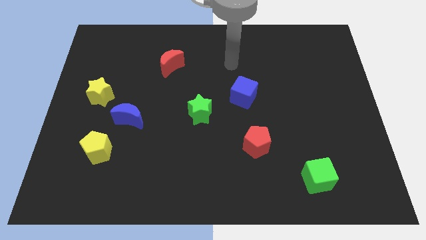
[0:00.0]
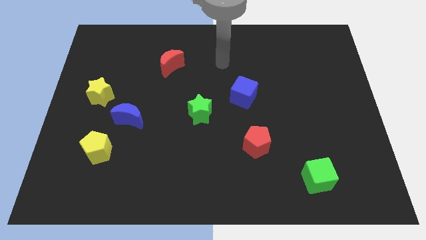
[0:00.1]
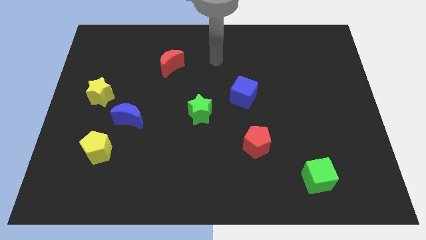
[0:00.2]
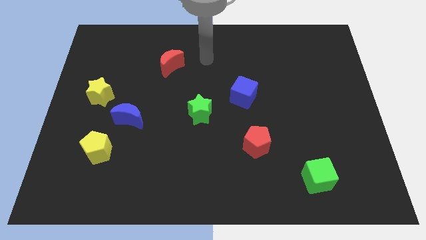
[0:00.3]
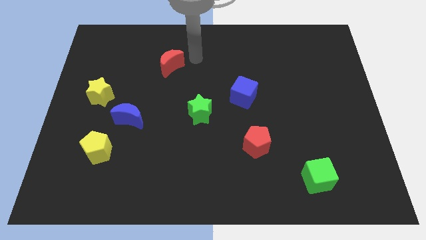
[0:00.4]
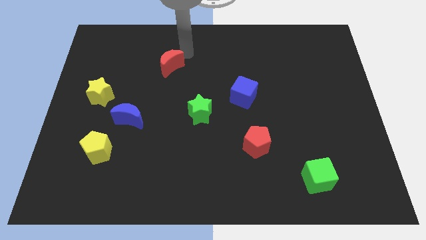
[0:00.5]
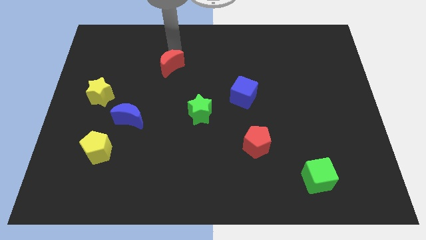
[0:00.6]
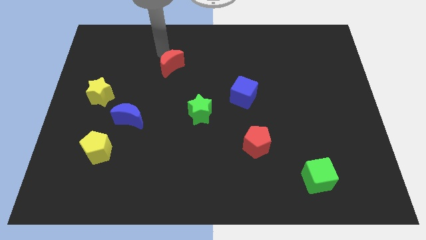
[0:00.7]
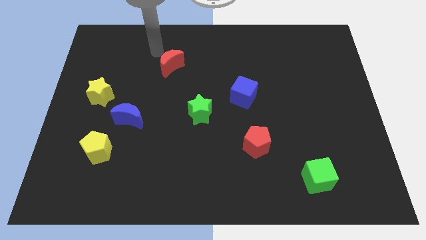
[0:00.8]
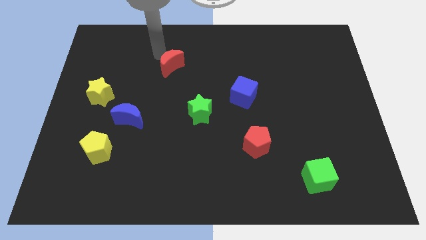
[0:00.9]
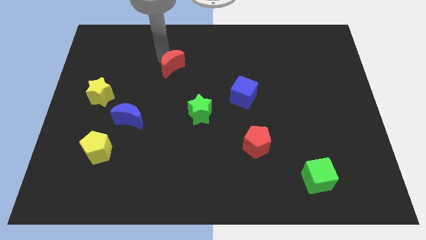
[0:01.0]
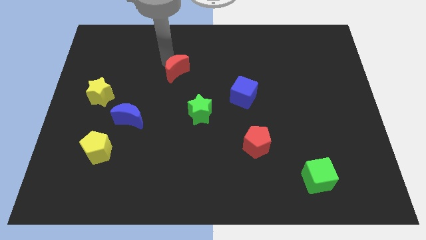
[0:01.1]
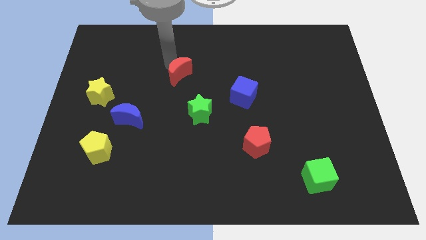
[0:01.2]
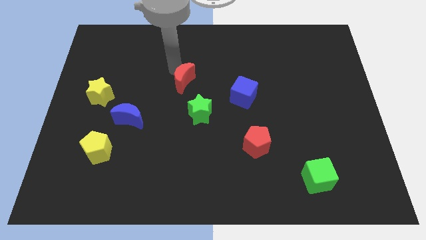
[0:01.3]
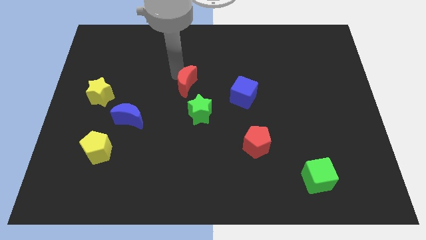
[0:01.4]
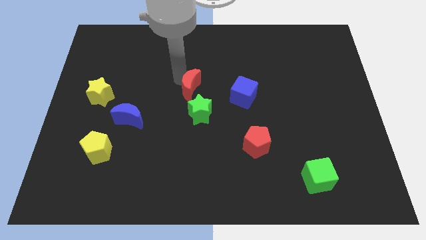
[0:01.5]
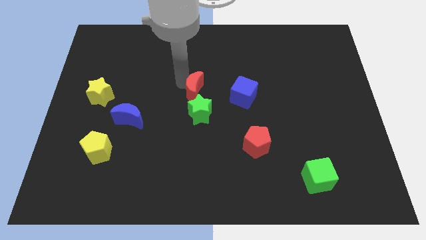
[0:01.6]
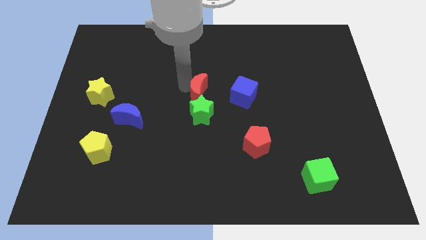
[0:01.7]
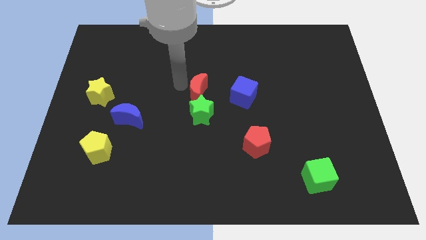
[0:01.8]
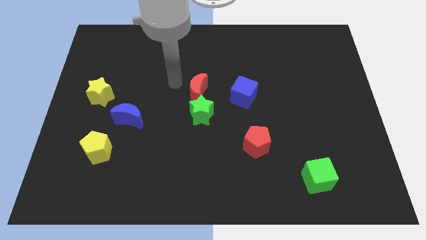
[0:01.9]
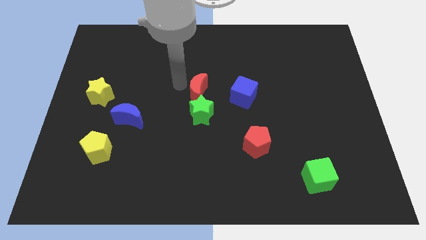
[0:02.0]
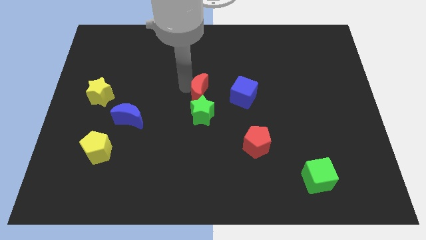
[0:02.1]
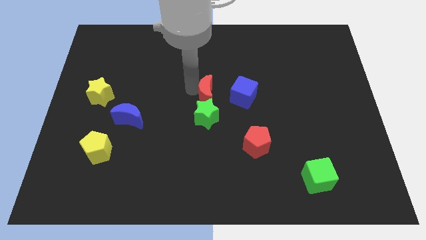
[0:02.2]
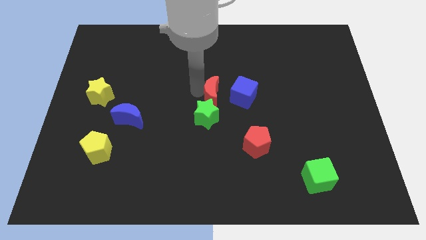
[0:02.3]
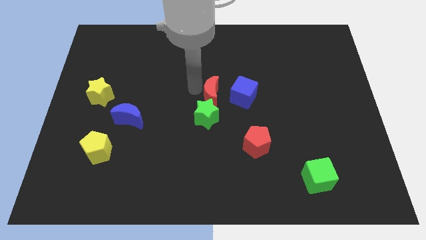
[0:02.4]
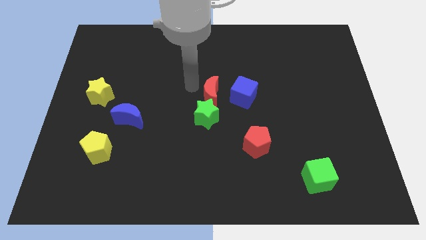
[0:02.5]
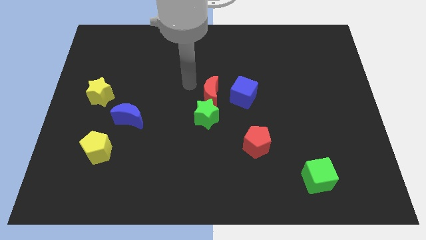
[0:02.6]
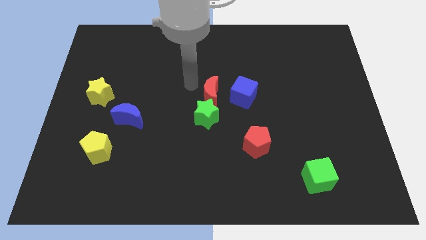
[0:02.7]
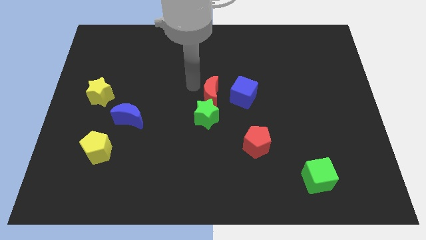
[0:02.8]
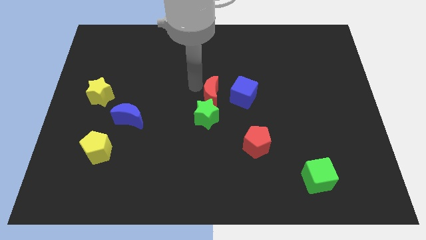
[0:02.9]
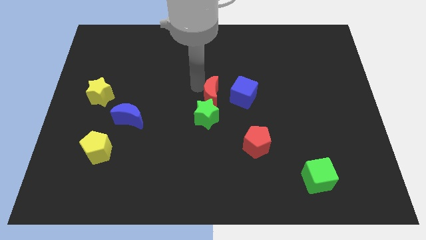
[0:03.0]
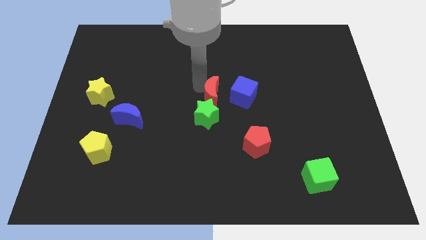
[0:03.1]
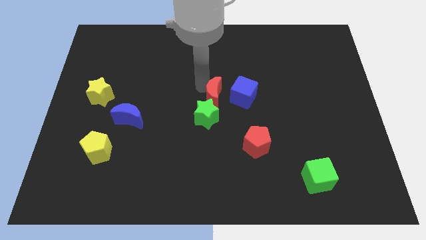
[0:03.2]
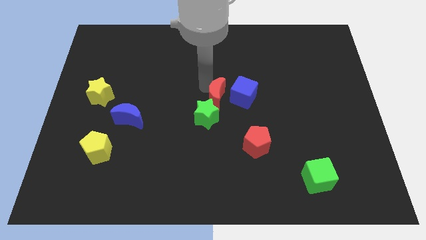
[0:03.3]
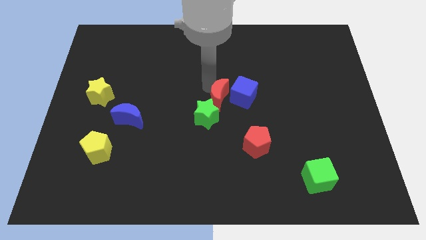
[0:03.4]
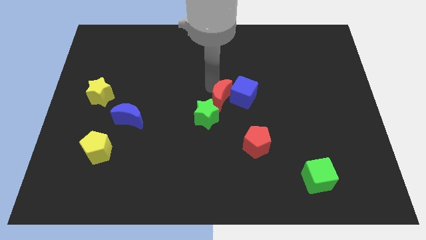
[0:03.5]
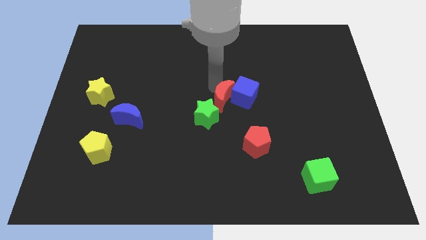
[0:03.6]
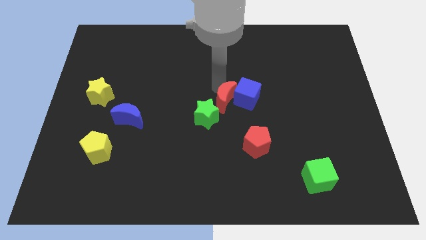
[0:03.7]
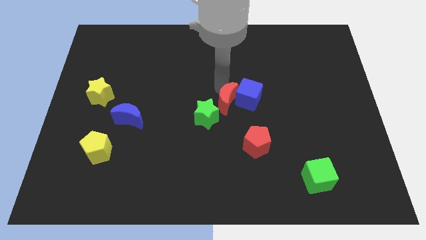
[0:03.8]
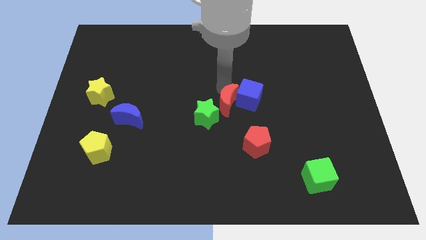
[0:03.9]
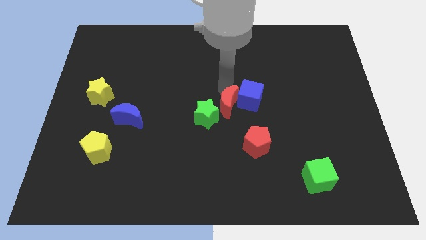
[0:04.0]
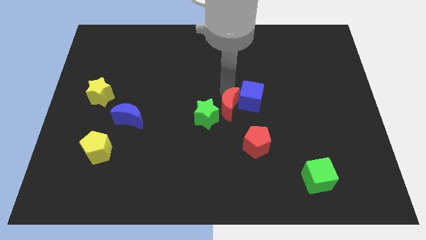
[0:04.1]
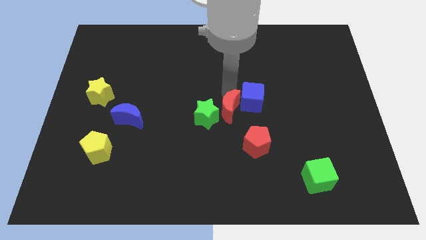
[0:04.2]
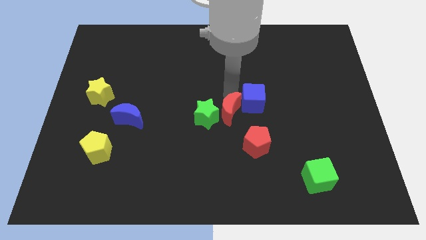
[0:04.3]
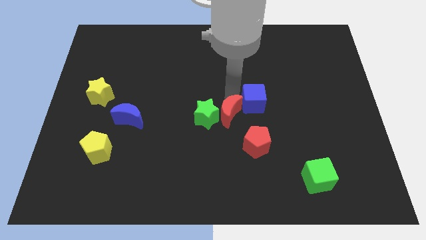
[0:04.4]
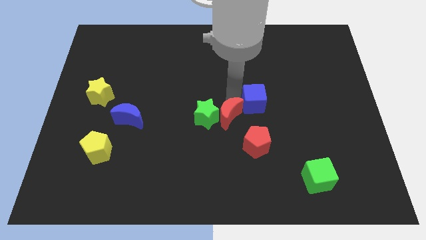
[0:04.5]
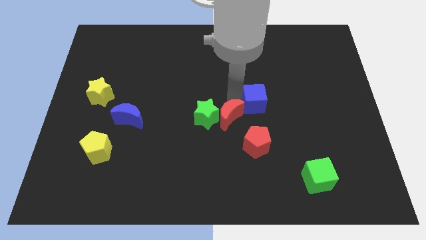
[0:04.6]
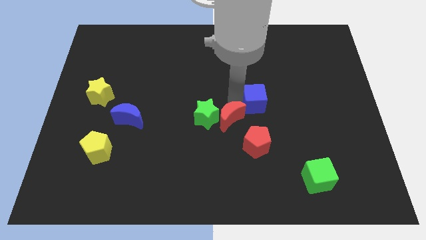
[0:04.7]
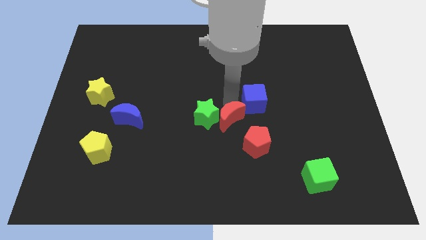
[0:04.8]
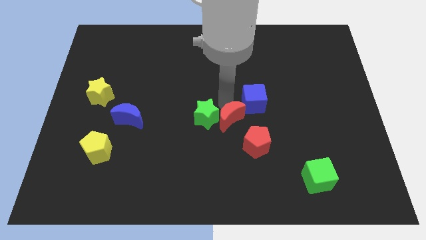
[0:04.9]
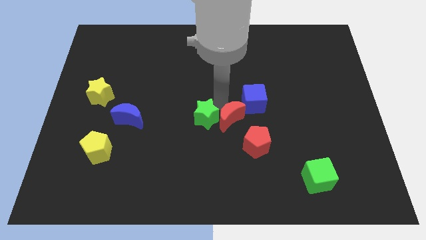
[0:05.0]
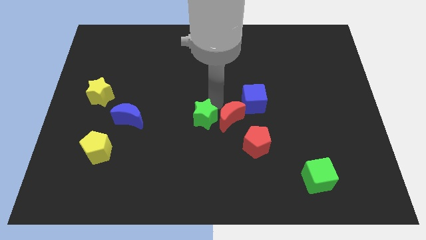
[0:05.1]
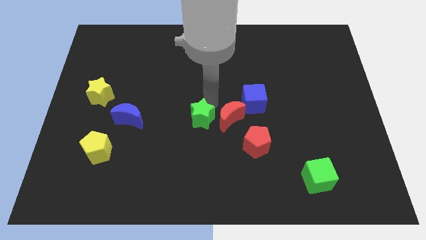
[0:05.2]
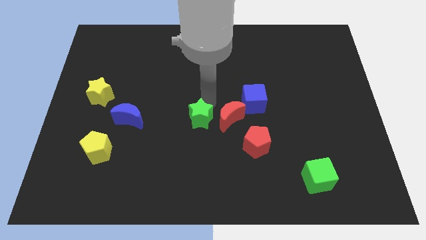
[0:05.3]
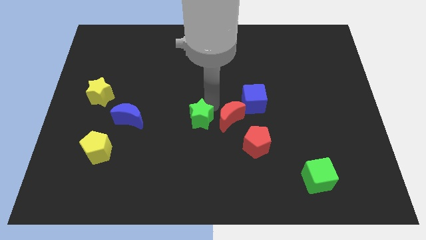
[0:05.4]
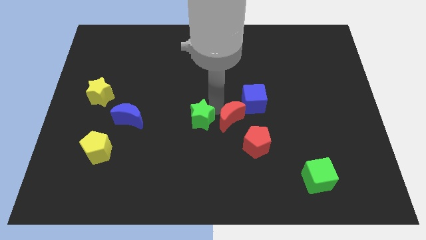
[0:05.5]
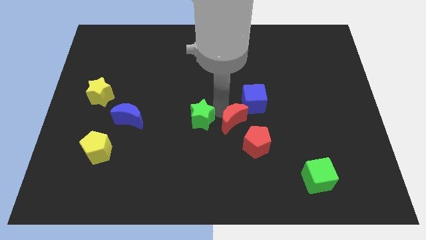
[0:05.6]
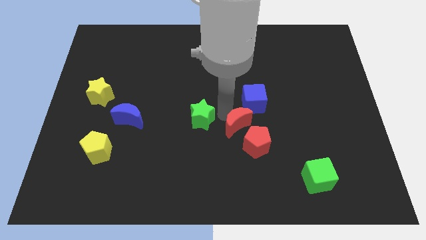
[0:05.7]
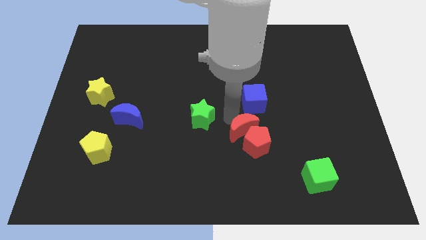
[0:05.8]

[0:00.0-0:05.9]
slide the red moon to the red pentagon

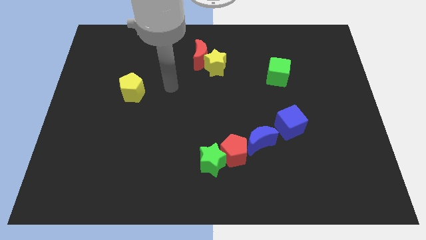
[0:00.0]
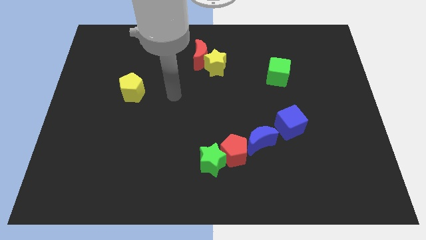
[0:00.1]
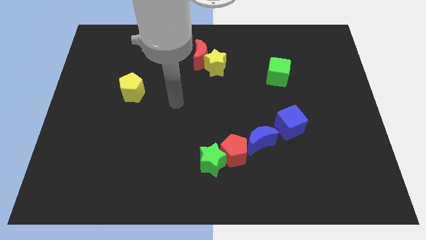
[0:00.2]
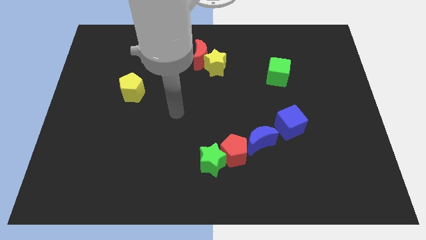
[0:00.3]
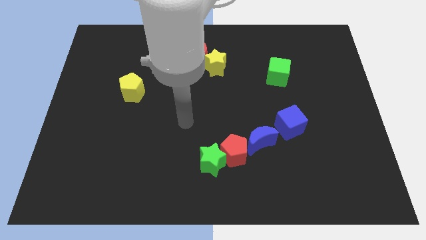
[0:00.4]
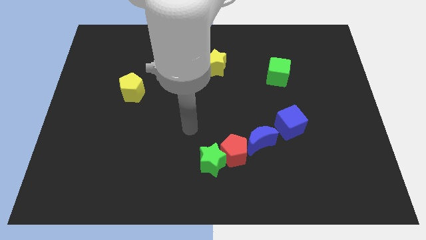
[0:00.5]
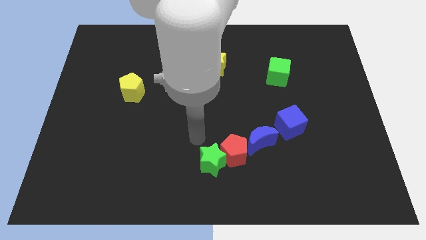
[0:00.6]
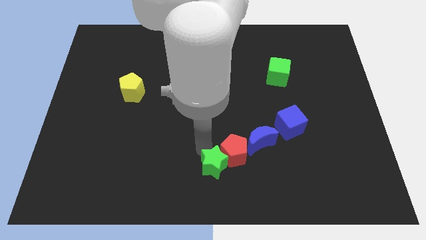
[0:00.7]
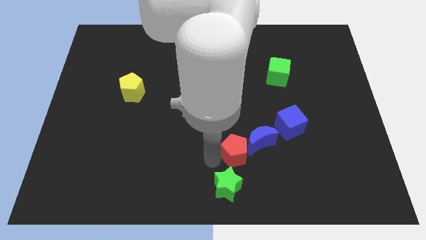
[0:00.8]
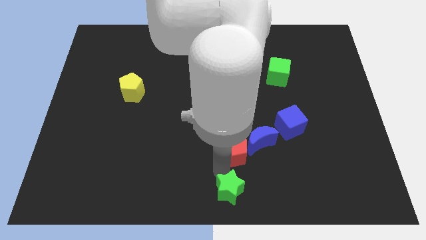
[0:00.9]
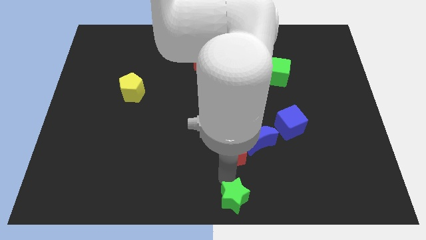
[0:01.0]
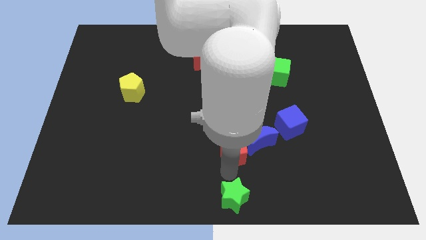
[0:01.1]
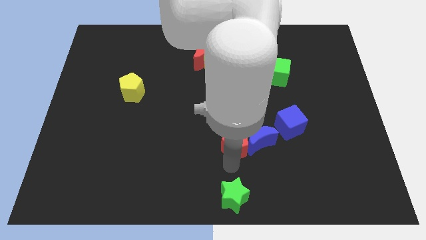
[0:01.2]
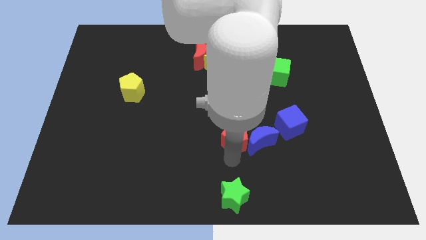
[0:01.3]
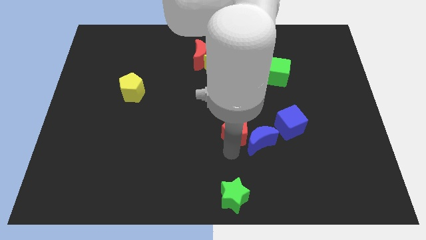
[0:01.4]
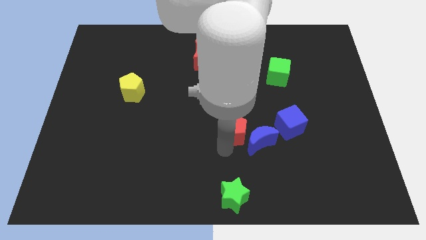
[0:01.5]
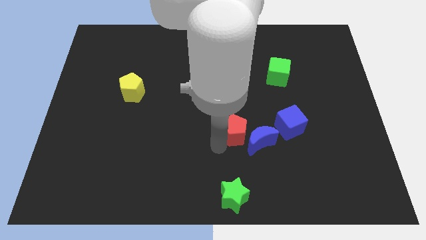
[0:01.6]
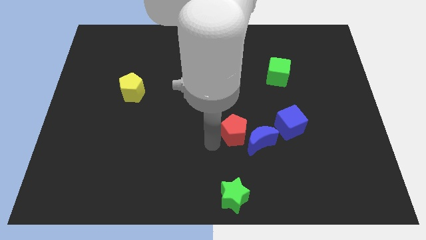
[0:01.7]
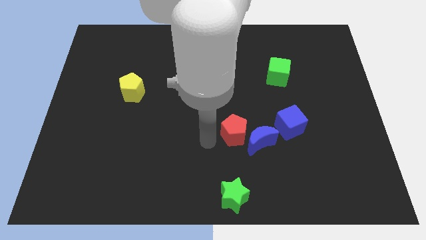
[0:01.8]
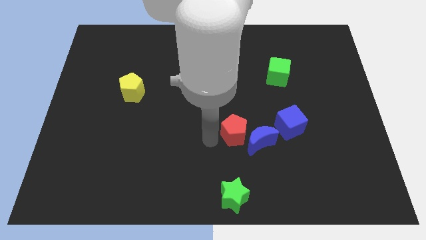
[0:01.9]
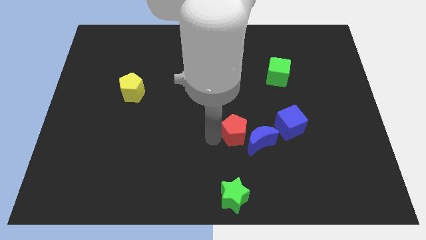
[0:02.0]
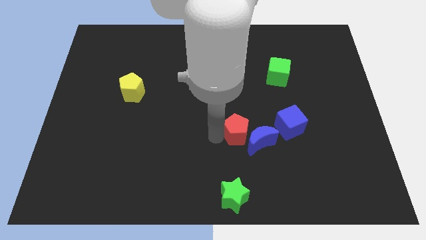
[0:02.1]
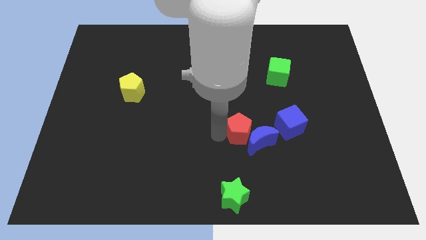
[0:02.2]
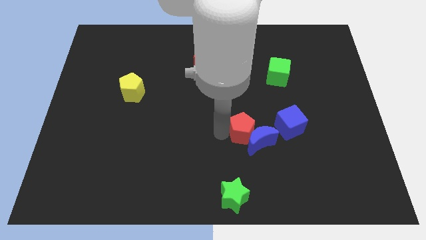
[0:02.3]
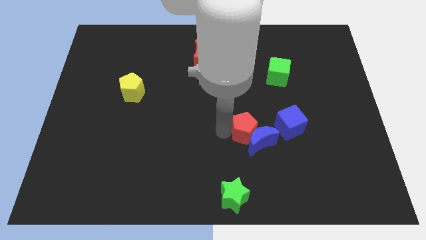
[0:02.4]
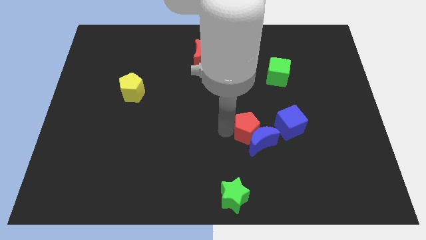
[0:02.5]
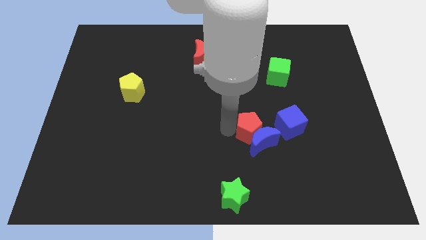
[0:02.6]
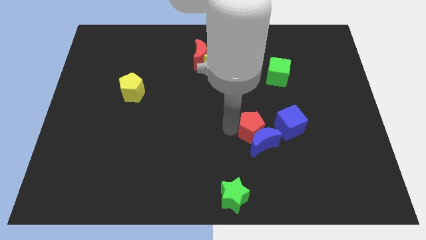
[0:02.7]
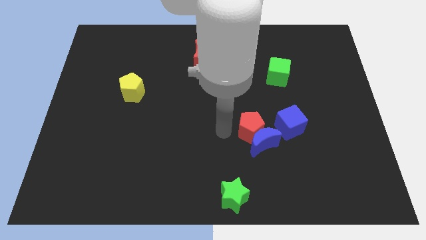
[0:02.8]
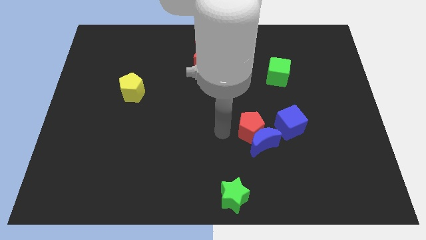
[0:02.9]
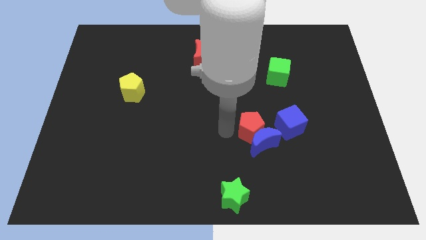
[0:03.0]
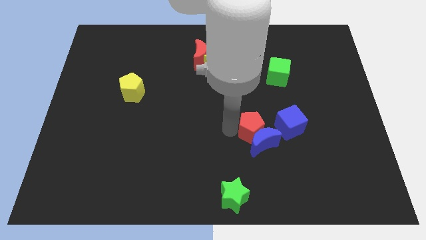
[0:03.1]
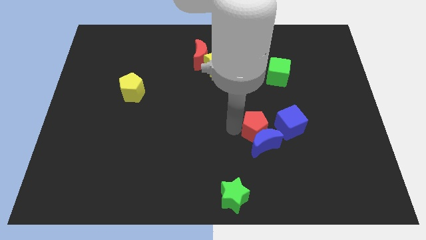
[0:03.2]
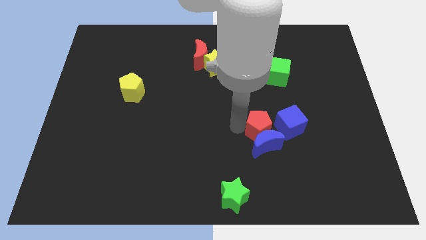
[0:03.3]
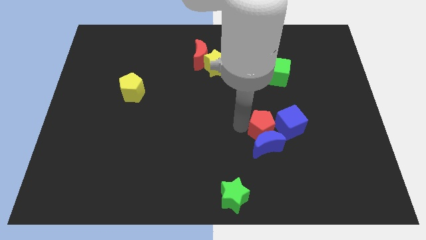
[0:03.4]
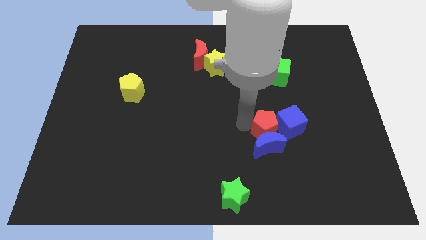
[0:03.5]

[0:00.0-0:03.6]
slide the red pentagon to the blue cube
